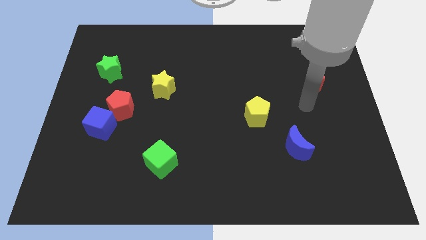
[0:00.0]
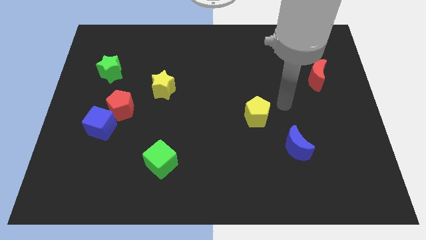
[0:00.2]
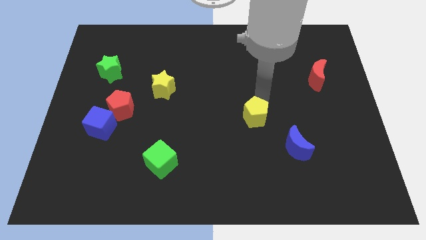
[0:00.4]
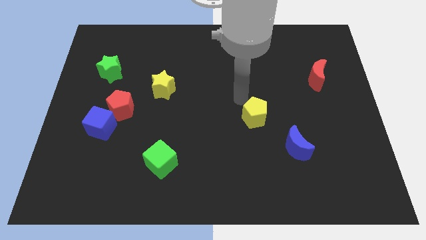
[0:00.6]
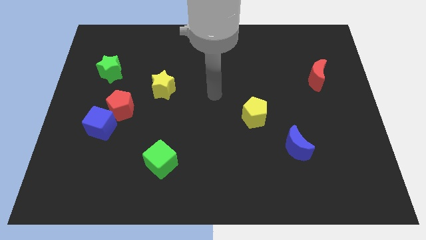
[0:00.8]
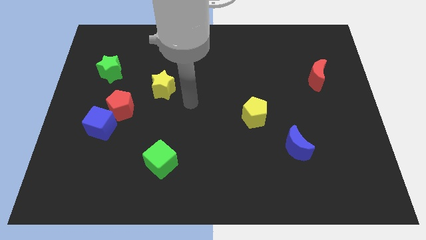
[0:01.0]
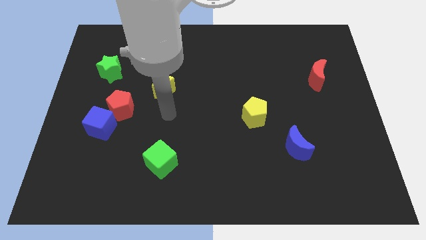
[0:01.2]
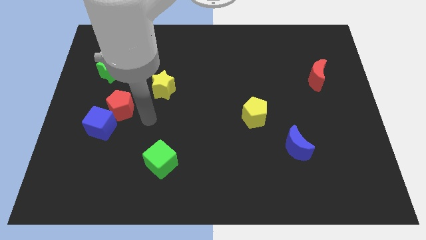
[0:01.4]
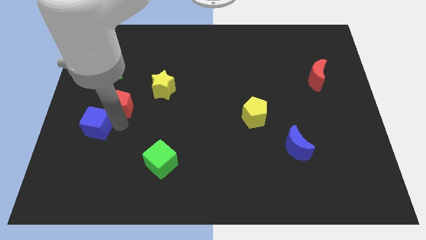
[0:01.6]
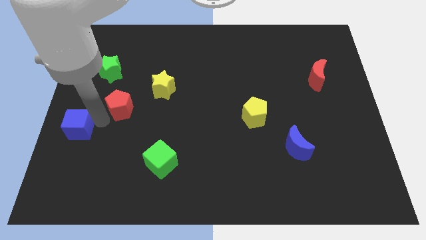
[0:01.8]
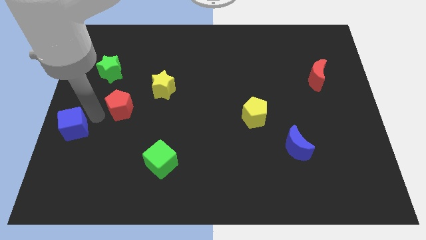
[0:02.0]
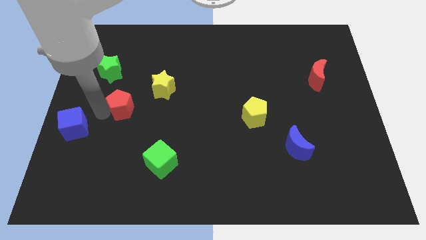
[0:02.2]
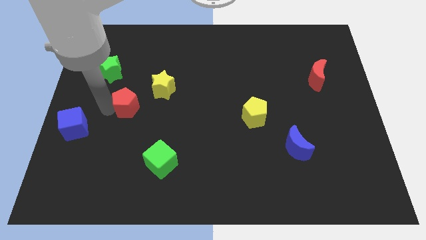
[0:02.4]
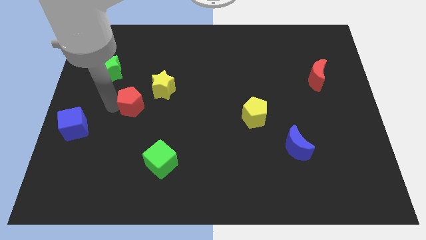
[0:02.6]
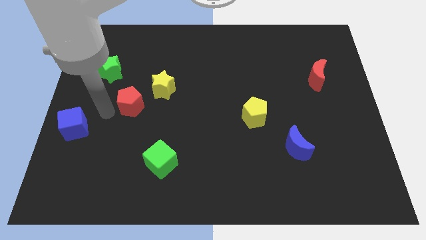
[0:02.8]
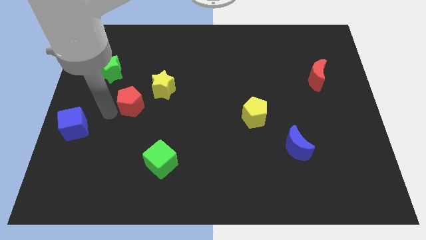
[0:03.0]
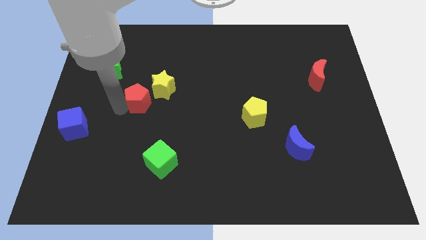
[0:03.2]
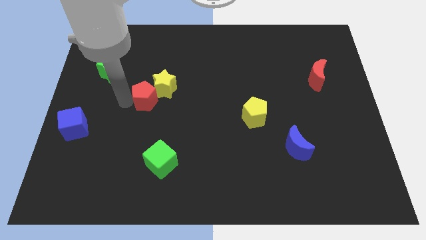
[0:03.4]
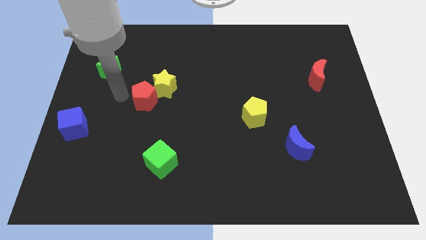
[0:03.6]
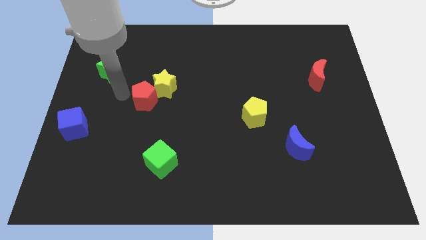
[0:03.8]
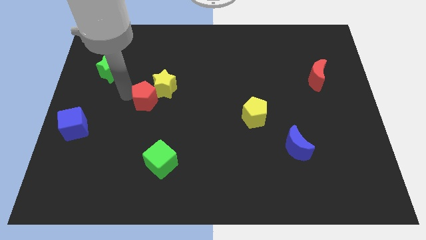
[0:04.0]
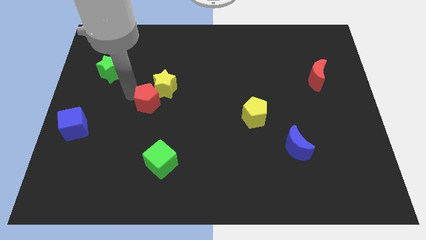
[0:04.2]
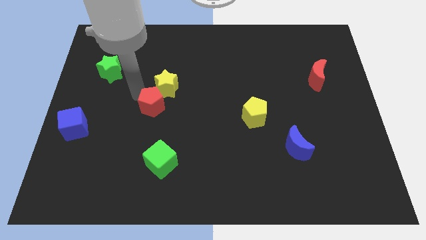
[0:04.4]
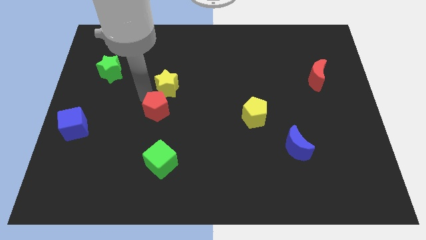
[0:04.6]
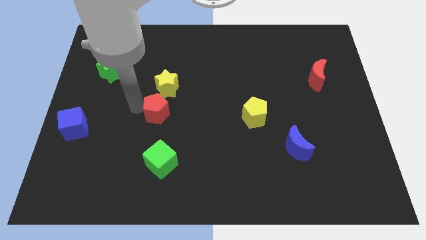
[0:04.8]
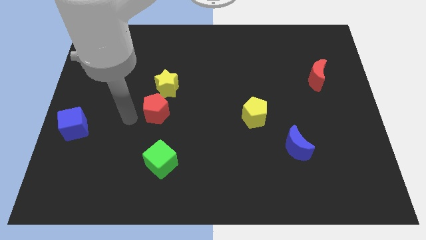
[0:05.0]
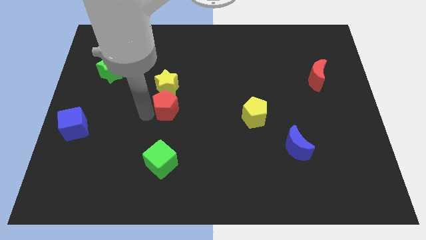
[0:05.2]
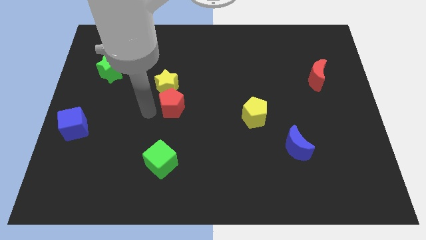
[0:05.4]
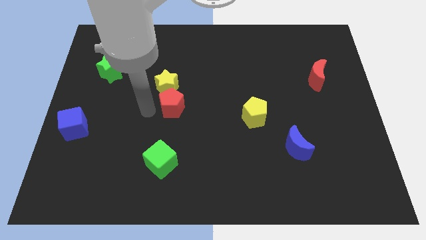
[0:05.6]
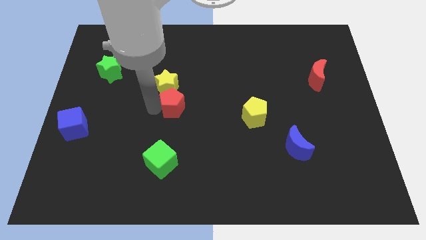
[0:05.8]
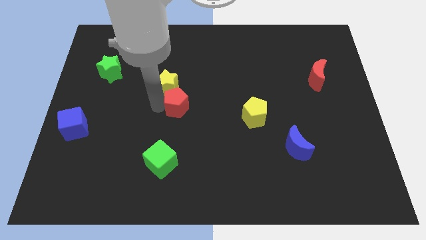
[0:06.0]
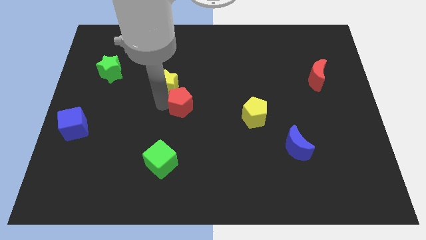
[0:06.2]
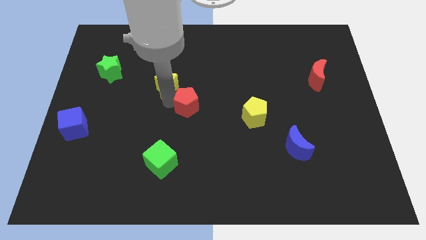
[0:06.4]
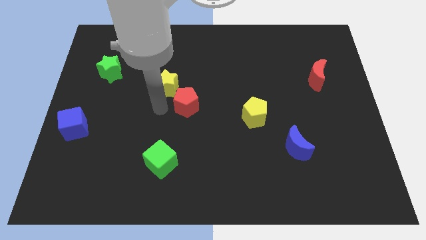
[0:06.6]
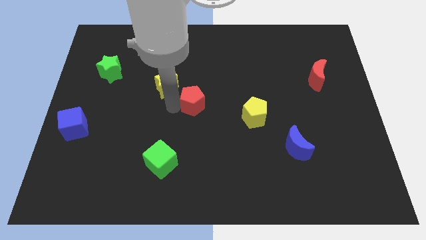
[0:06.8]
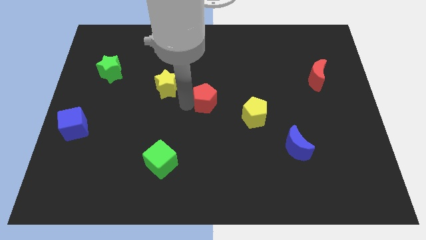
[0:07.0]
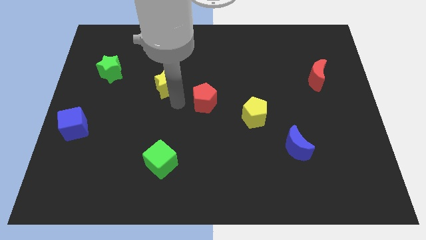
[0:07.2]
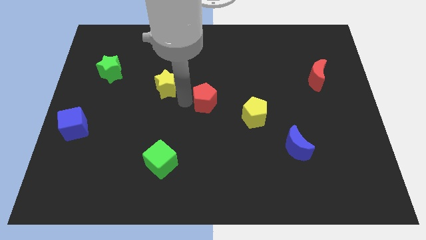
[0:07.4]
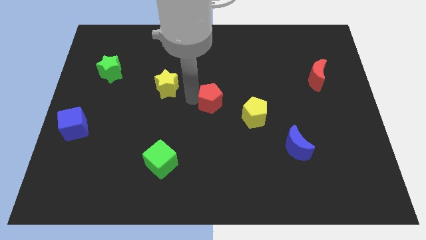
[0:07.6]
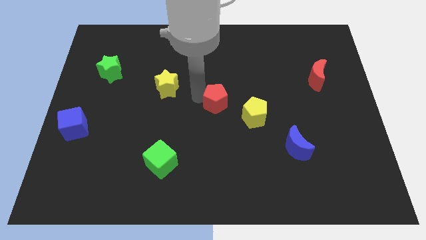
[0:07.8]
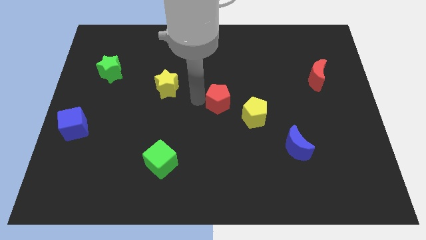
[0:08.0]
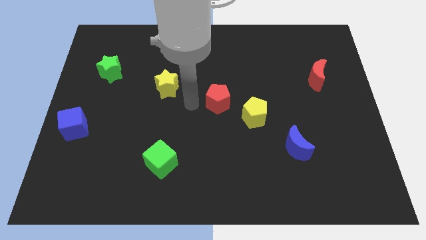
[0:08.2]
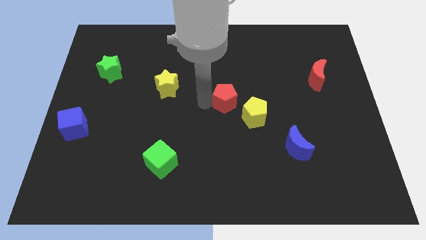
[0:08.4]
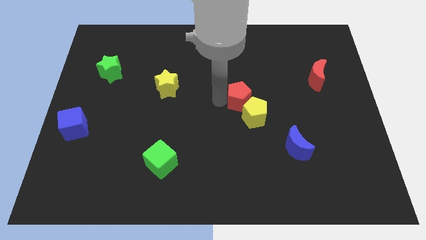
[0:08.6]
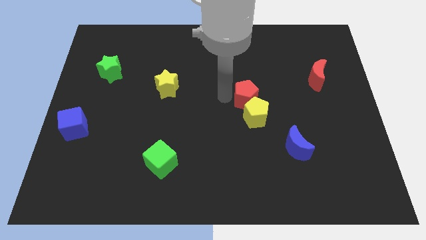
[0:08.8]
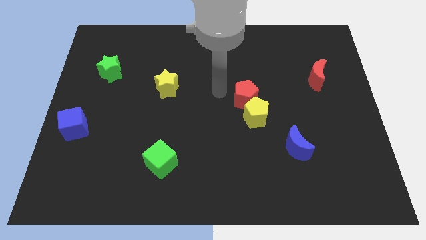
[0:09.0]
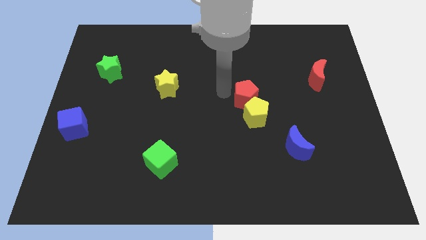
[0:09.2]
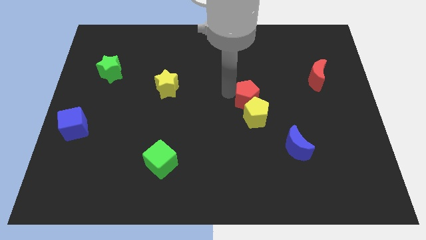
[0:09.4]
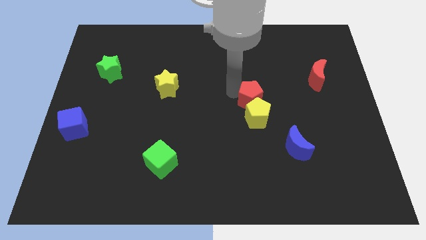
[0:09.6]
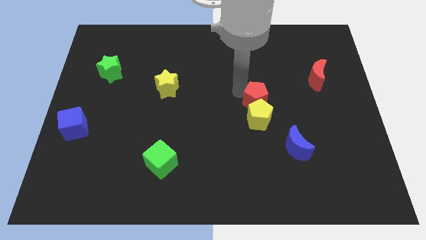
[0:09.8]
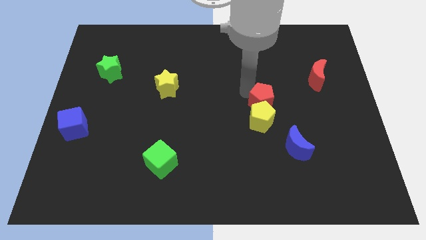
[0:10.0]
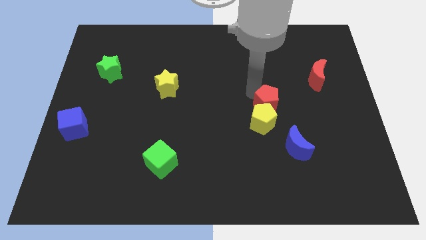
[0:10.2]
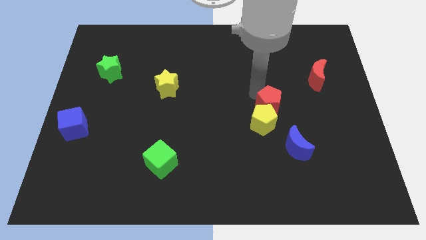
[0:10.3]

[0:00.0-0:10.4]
move the red pentagon to the top side of the blue moon

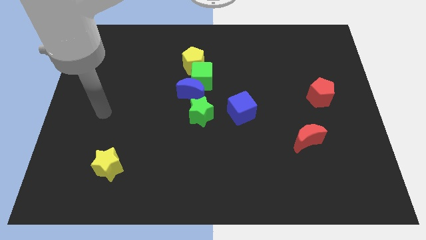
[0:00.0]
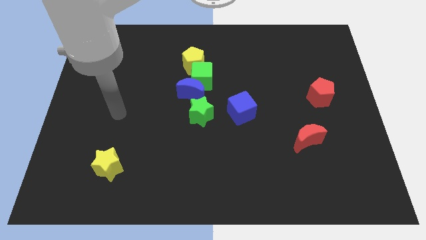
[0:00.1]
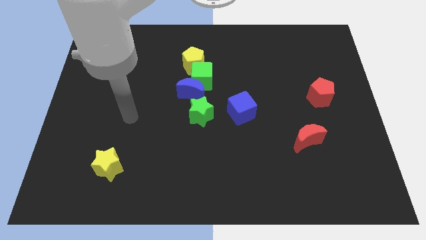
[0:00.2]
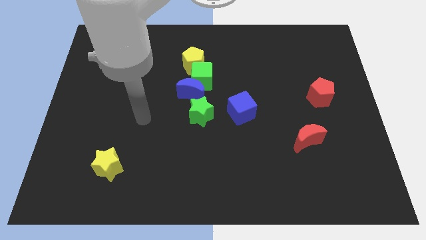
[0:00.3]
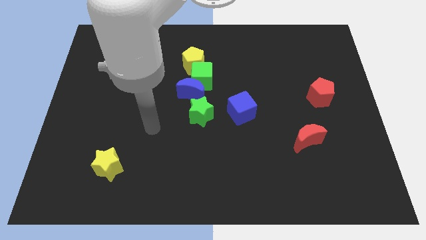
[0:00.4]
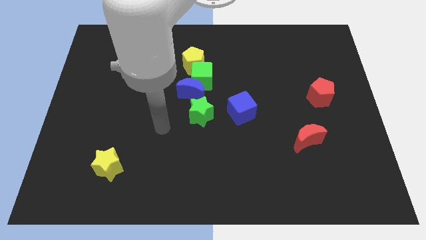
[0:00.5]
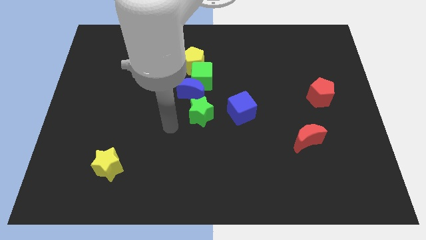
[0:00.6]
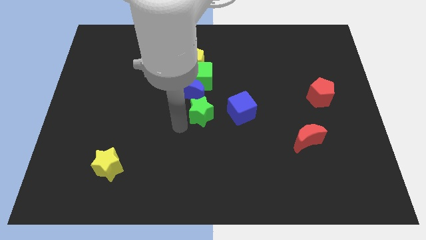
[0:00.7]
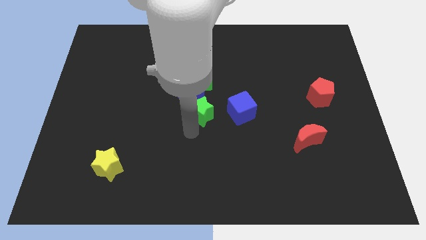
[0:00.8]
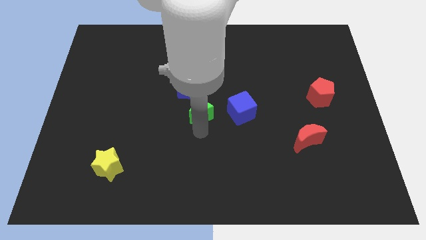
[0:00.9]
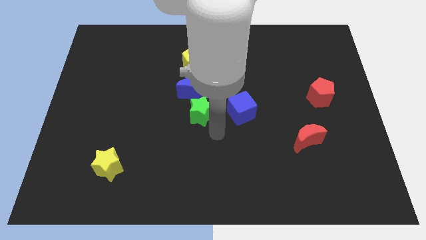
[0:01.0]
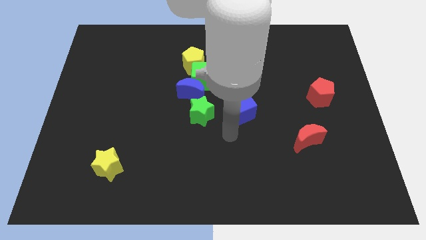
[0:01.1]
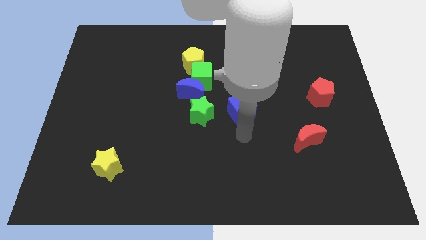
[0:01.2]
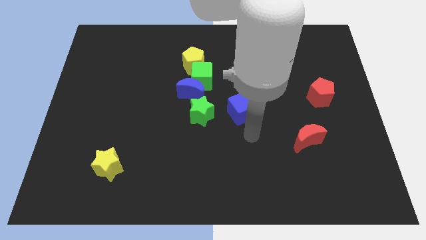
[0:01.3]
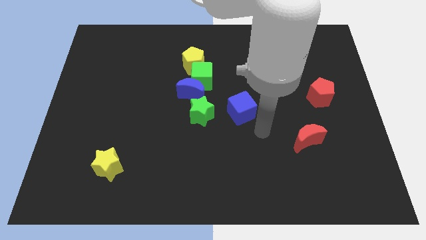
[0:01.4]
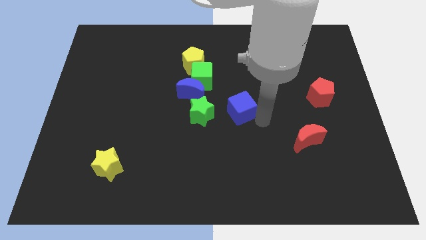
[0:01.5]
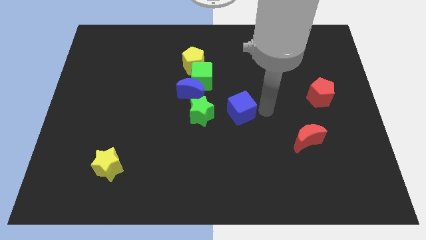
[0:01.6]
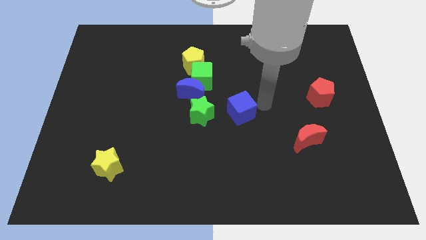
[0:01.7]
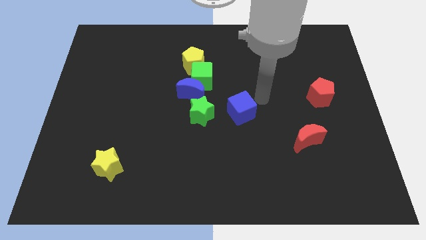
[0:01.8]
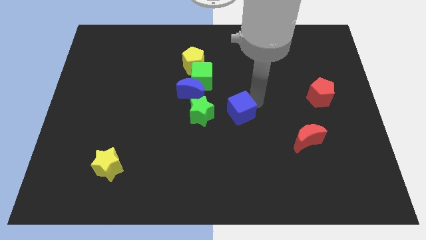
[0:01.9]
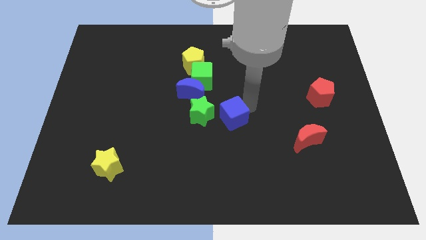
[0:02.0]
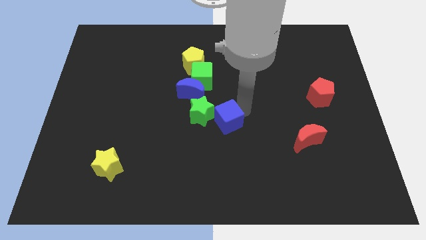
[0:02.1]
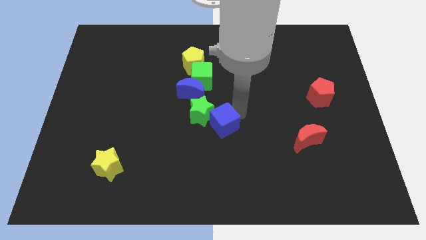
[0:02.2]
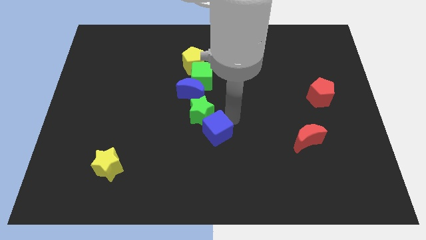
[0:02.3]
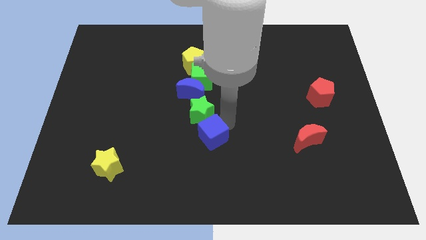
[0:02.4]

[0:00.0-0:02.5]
move the blue cube to the bottom of the blue moon
